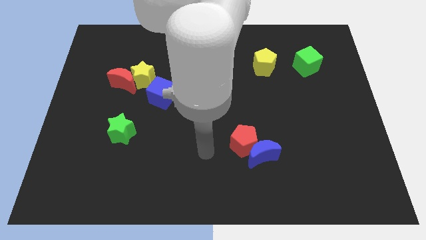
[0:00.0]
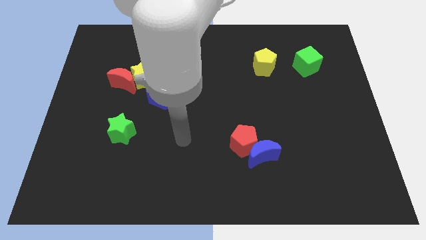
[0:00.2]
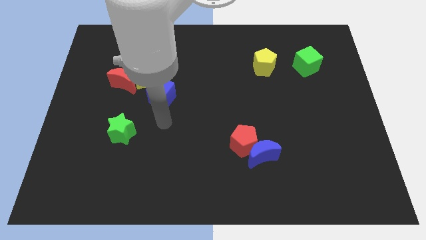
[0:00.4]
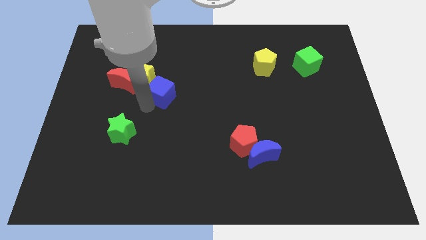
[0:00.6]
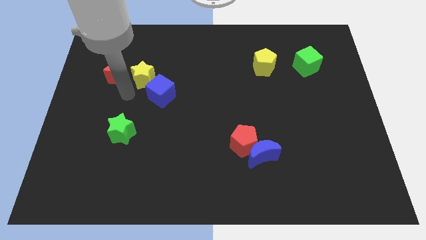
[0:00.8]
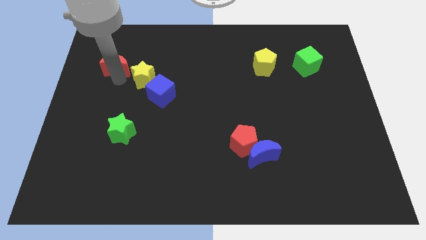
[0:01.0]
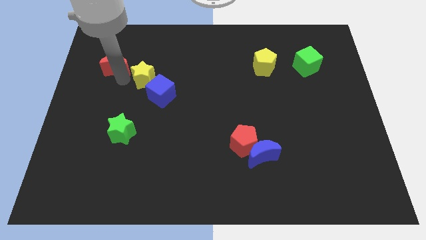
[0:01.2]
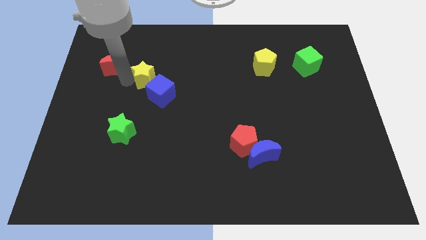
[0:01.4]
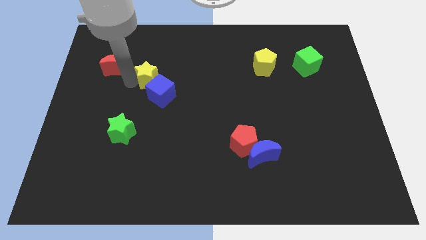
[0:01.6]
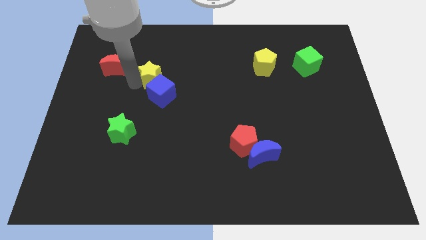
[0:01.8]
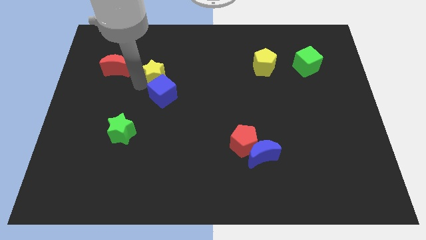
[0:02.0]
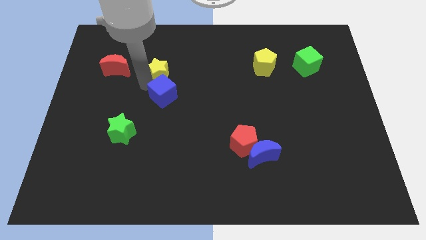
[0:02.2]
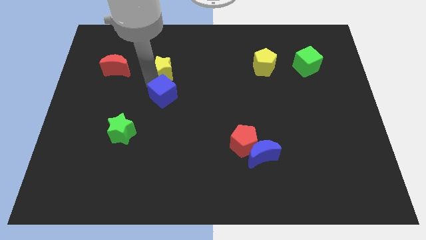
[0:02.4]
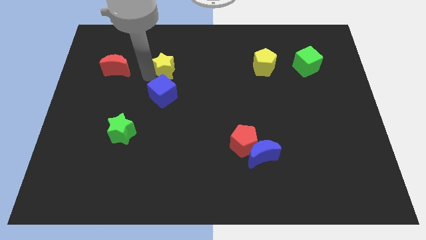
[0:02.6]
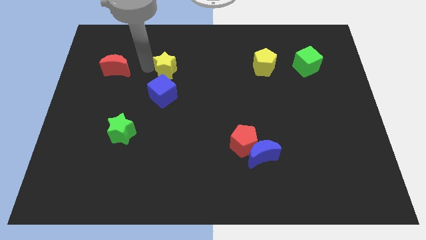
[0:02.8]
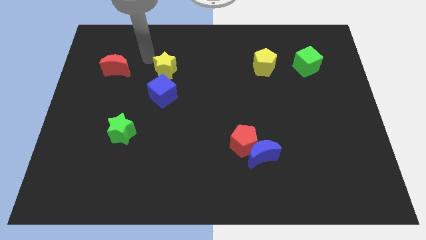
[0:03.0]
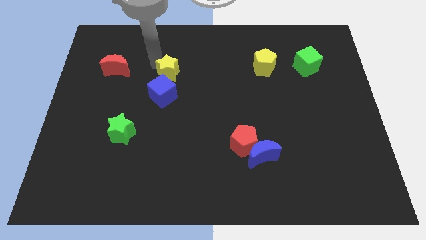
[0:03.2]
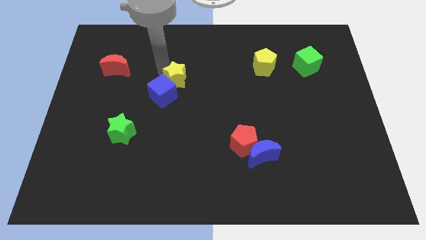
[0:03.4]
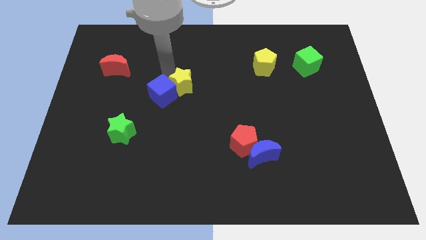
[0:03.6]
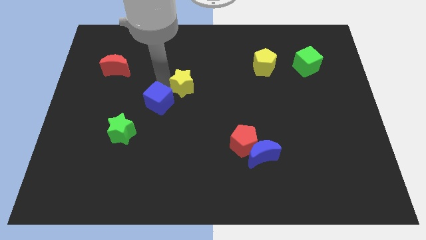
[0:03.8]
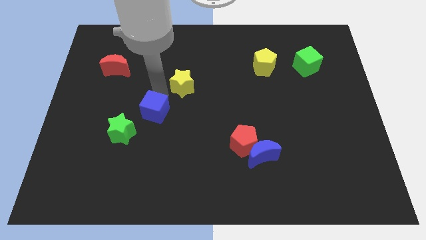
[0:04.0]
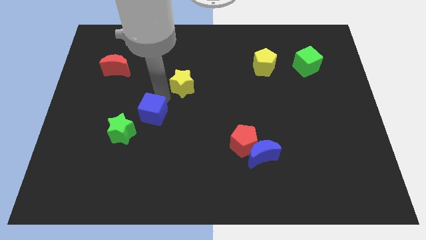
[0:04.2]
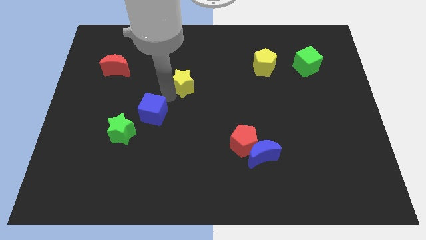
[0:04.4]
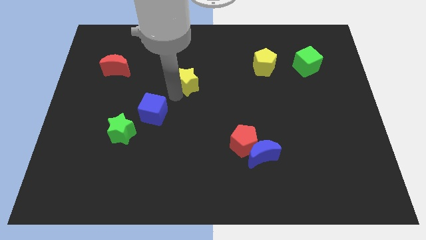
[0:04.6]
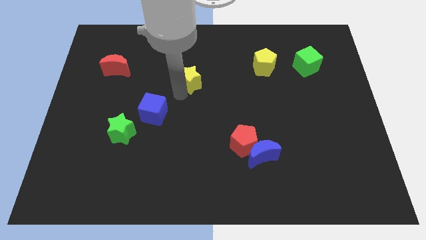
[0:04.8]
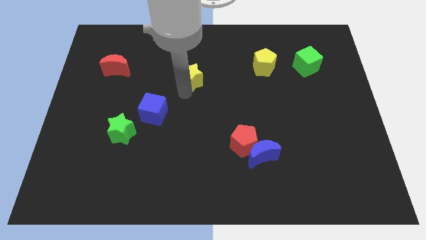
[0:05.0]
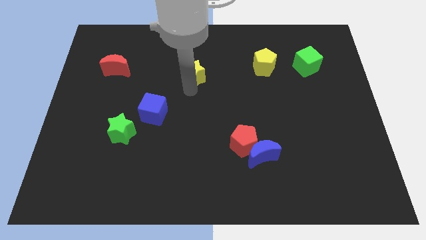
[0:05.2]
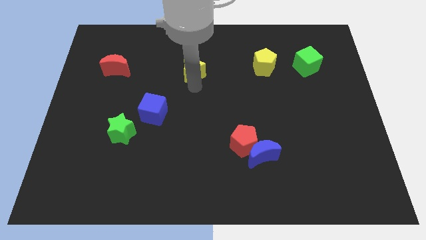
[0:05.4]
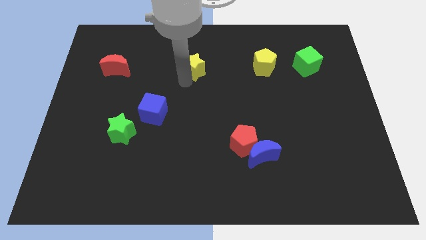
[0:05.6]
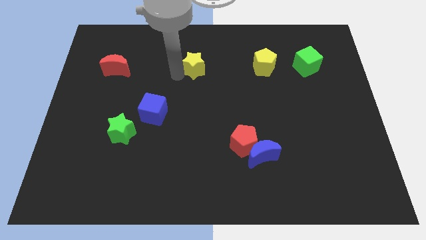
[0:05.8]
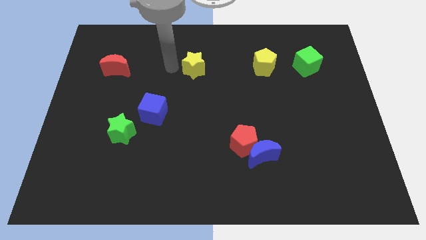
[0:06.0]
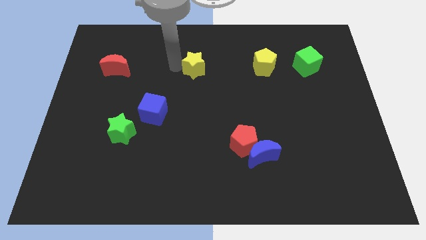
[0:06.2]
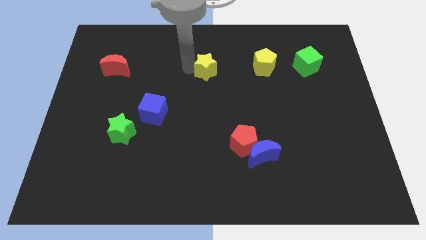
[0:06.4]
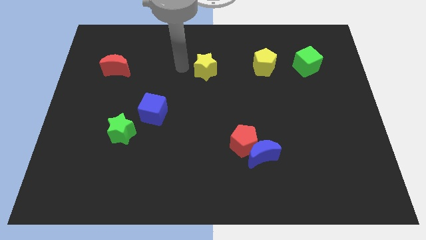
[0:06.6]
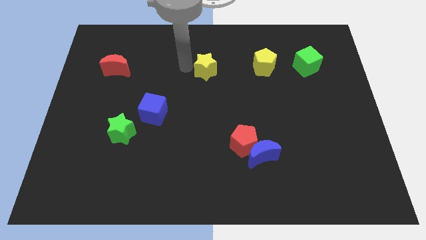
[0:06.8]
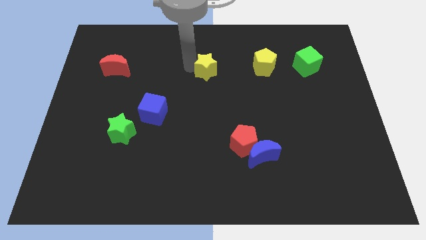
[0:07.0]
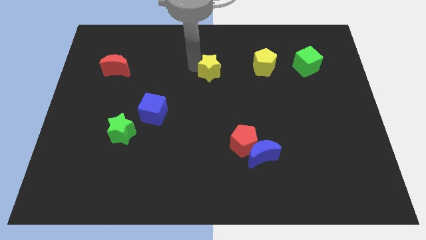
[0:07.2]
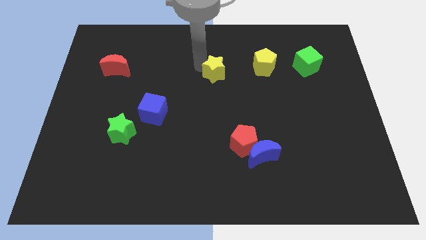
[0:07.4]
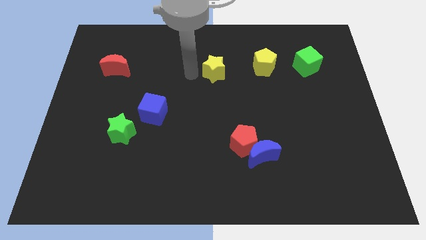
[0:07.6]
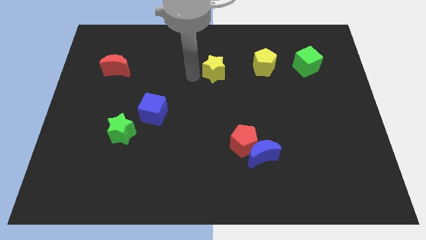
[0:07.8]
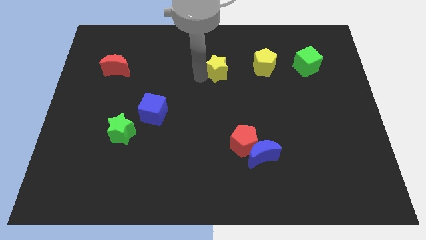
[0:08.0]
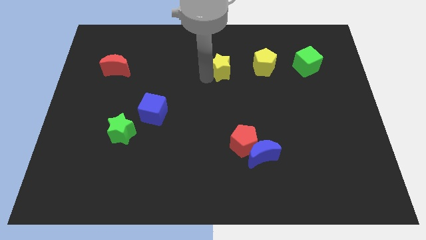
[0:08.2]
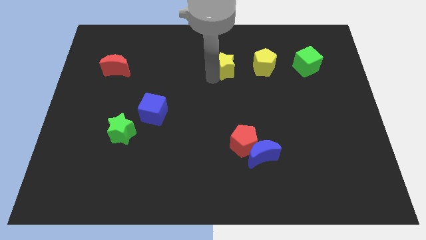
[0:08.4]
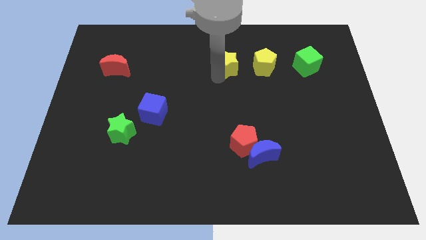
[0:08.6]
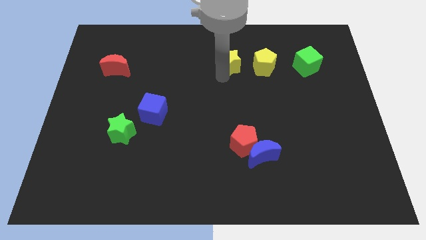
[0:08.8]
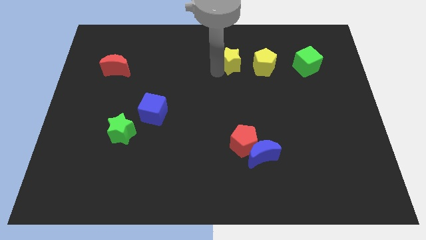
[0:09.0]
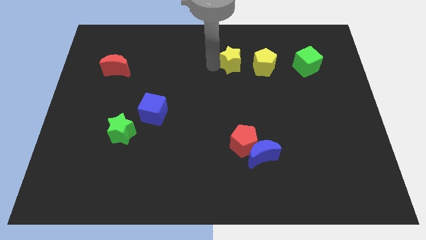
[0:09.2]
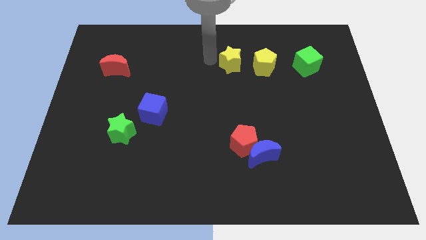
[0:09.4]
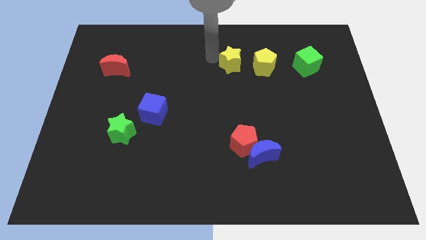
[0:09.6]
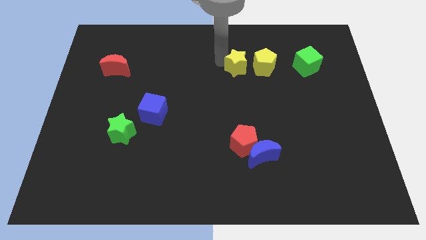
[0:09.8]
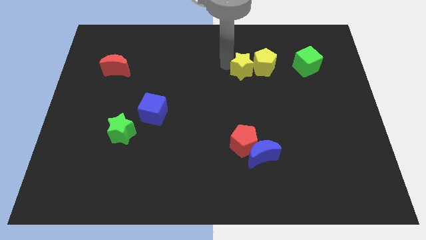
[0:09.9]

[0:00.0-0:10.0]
move the yellow star next to the yellow pentagon

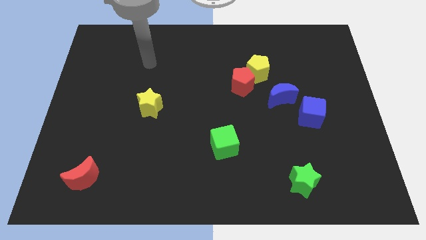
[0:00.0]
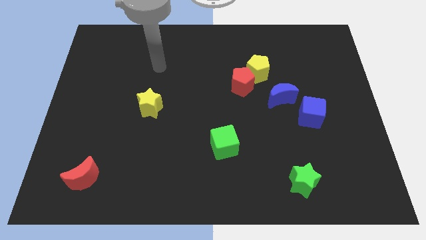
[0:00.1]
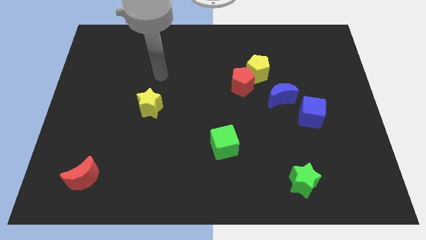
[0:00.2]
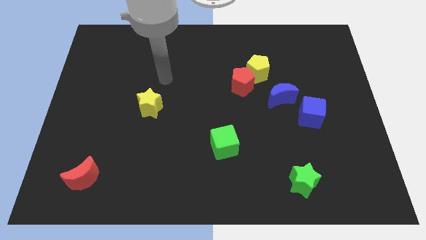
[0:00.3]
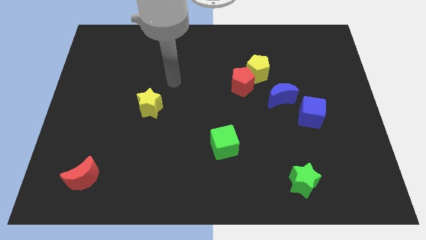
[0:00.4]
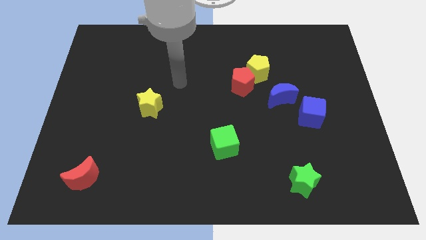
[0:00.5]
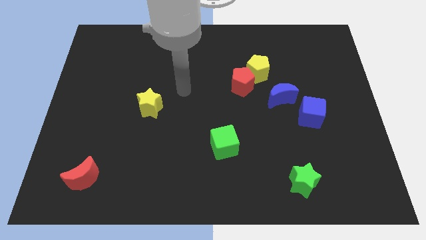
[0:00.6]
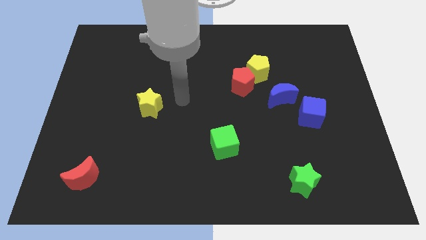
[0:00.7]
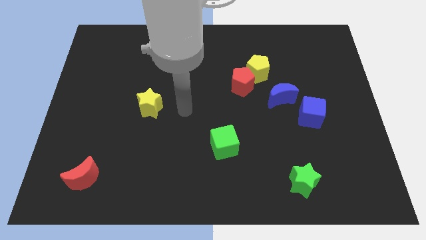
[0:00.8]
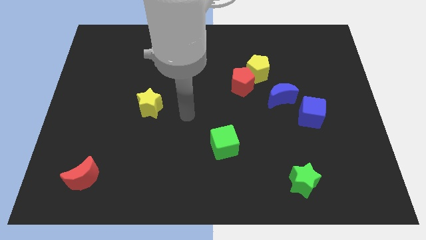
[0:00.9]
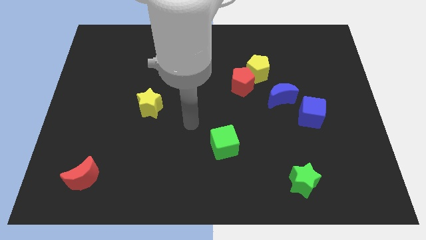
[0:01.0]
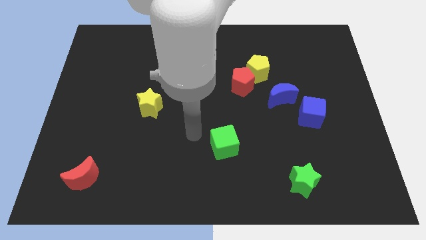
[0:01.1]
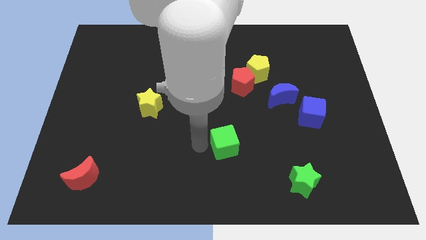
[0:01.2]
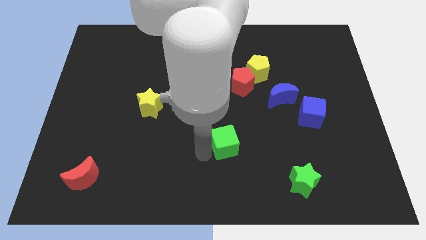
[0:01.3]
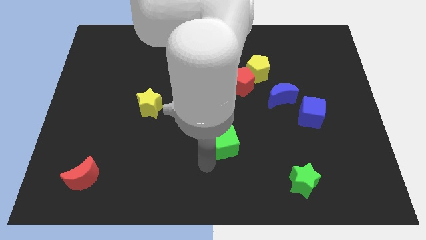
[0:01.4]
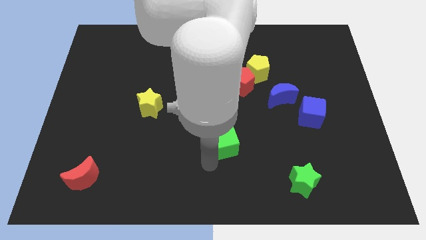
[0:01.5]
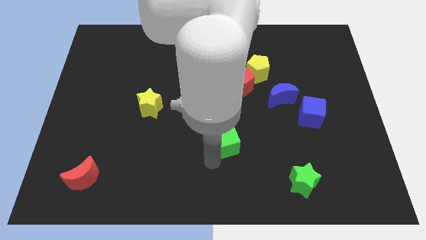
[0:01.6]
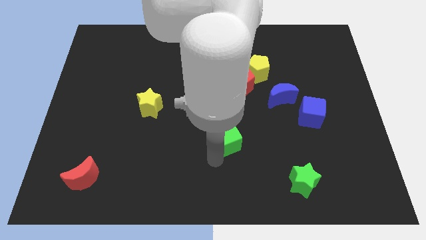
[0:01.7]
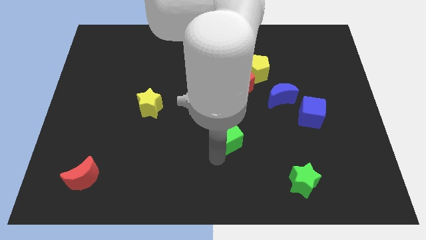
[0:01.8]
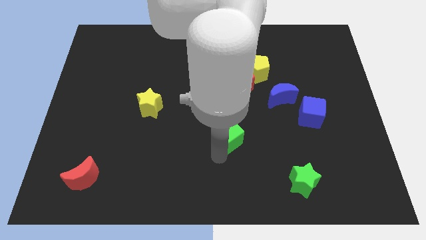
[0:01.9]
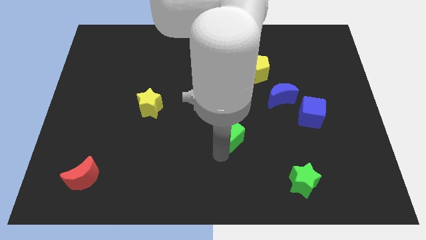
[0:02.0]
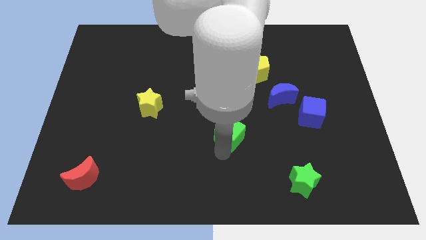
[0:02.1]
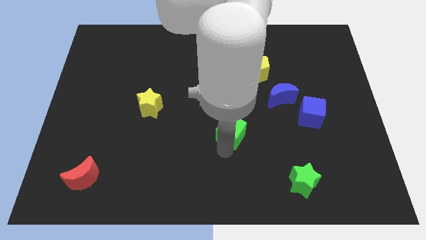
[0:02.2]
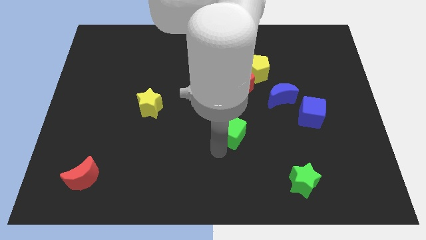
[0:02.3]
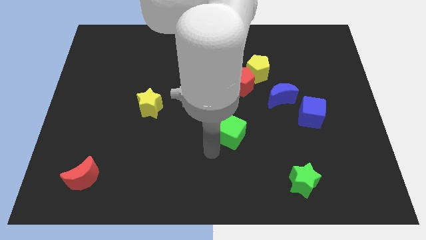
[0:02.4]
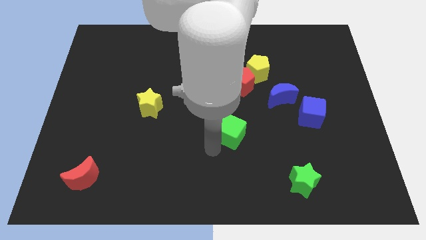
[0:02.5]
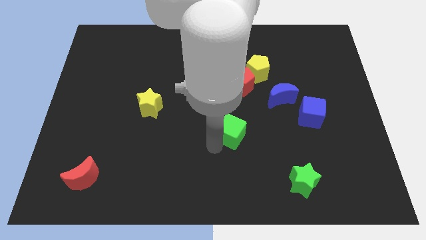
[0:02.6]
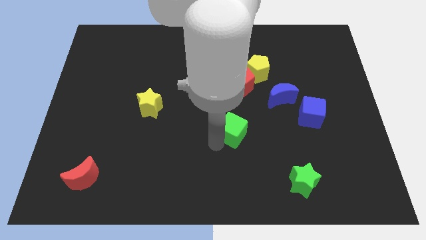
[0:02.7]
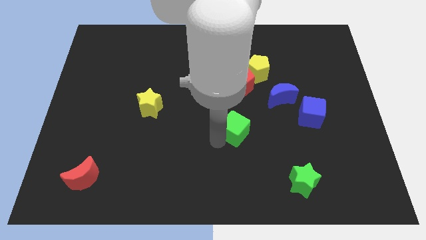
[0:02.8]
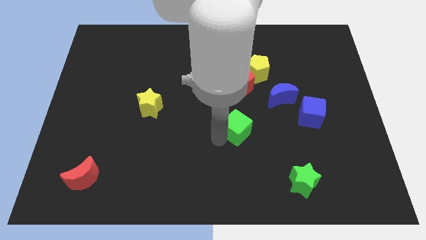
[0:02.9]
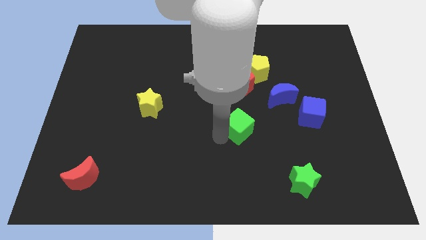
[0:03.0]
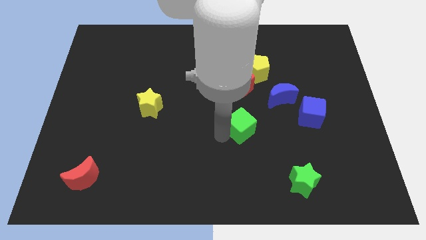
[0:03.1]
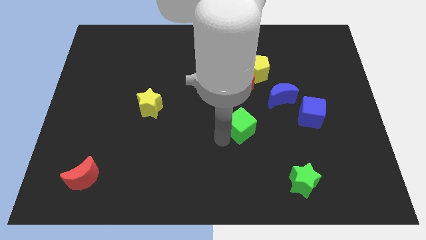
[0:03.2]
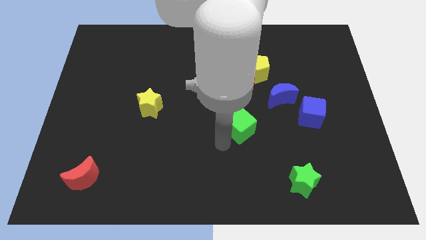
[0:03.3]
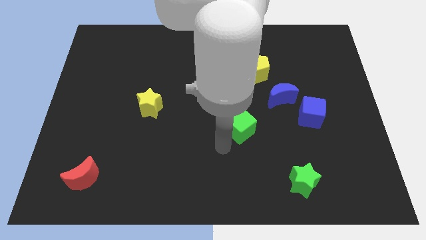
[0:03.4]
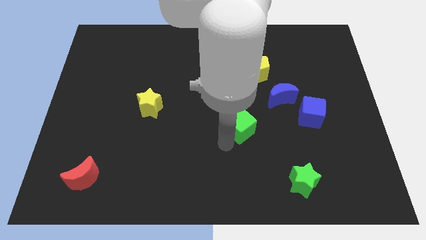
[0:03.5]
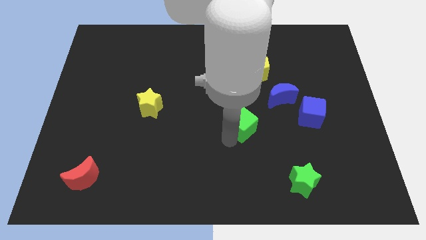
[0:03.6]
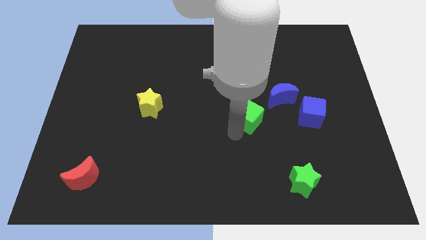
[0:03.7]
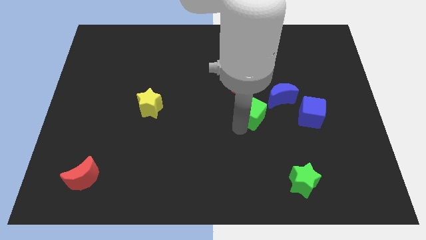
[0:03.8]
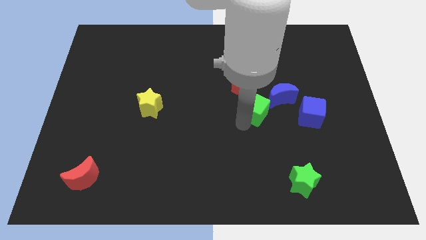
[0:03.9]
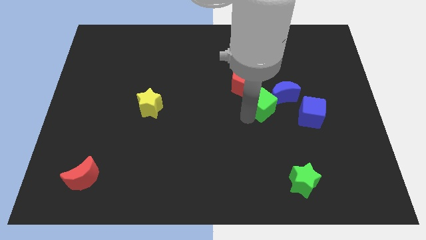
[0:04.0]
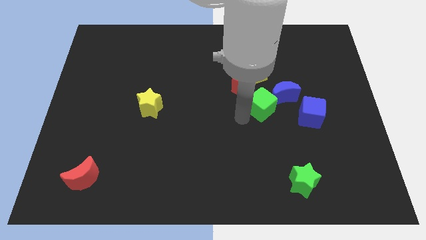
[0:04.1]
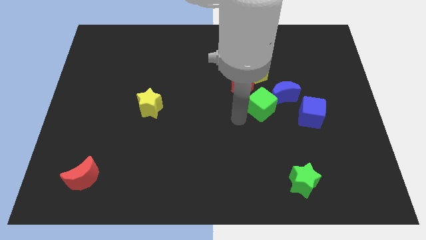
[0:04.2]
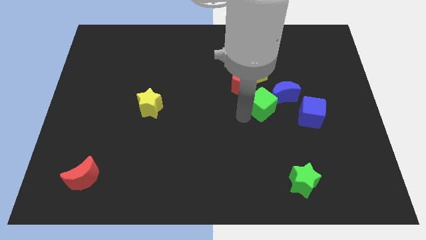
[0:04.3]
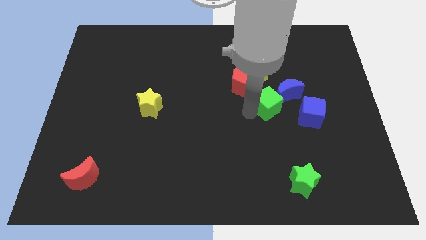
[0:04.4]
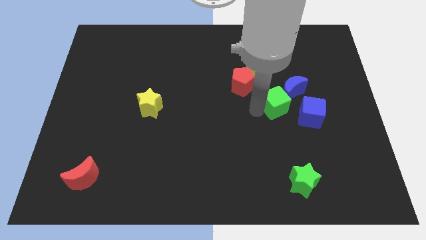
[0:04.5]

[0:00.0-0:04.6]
put the green cube to the blue moon
